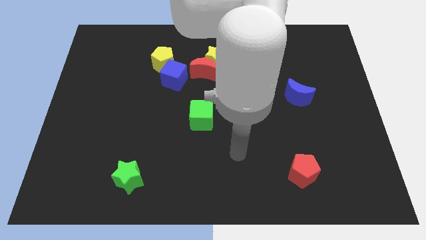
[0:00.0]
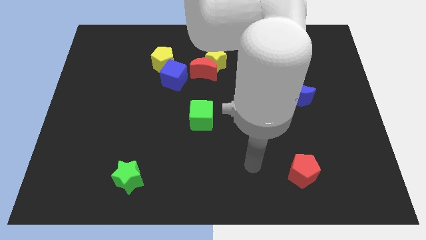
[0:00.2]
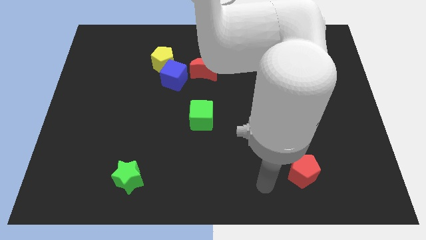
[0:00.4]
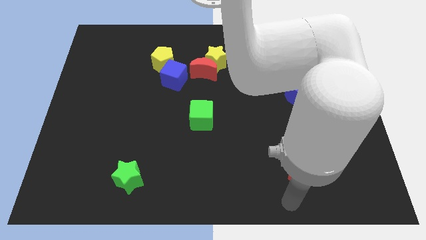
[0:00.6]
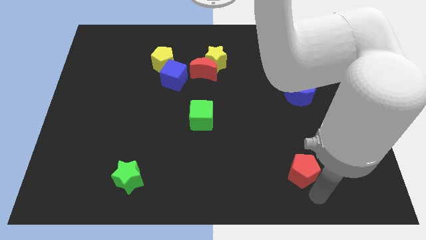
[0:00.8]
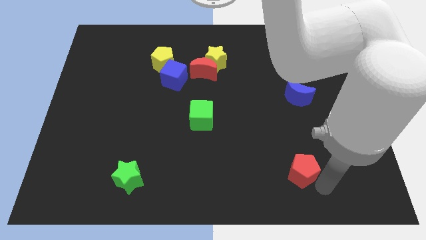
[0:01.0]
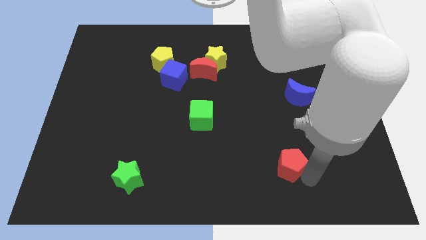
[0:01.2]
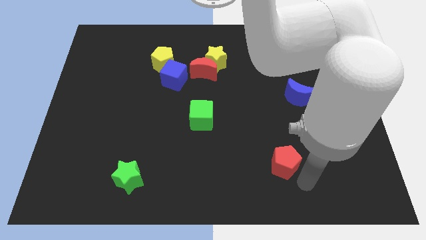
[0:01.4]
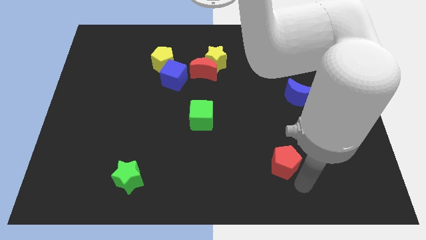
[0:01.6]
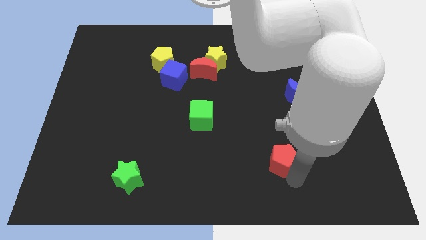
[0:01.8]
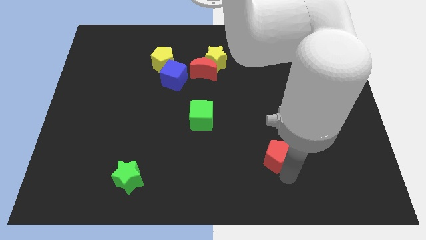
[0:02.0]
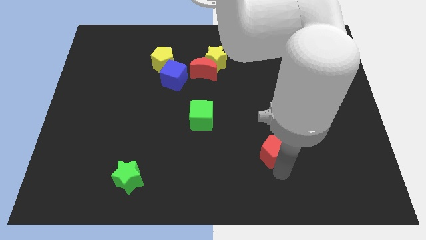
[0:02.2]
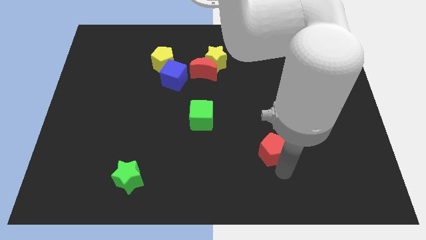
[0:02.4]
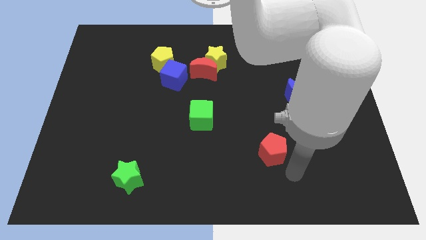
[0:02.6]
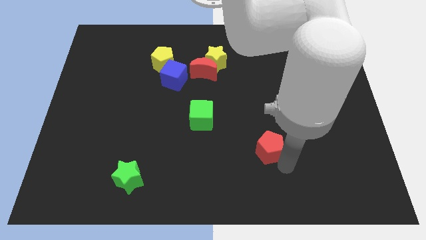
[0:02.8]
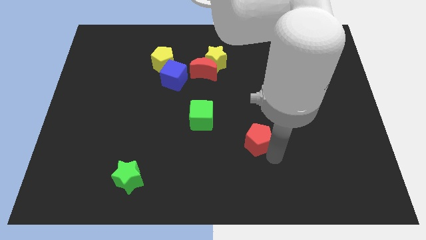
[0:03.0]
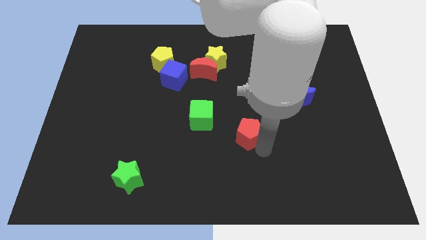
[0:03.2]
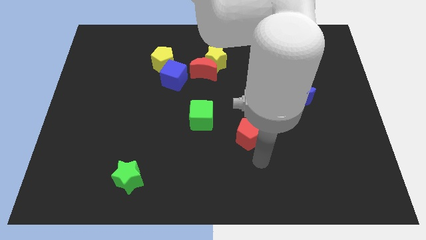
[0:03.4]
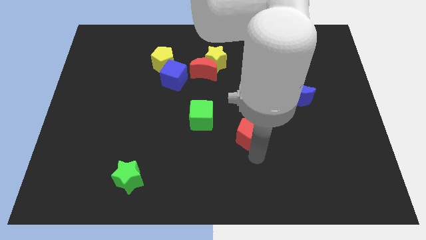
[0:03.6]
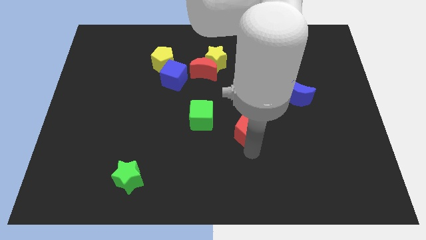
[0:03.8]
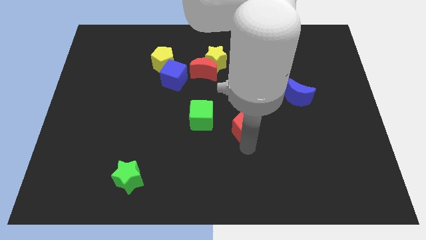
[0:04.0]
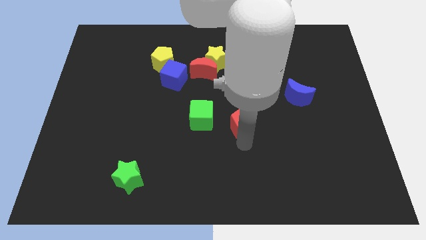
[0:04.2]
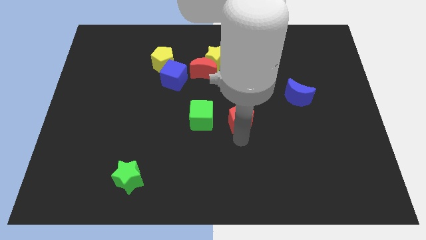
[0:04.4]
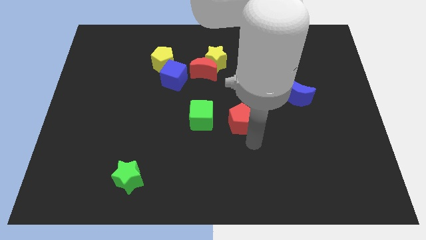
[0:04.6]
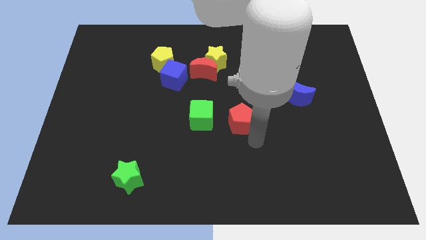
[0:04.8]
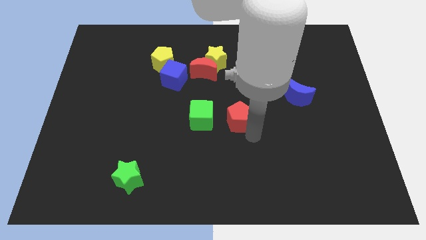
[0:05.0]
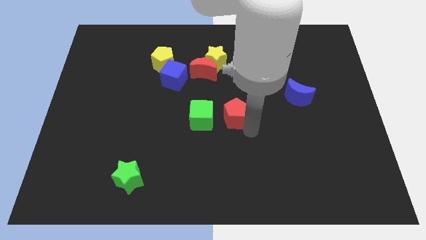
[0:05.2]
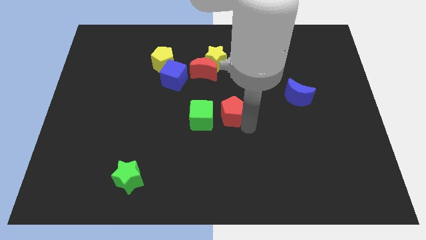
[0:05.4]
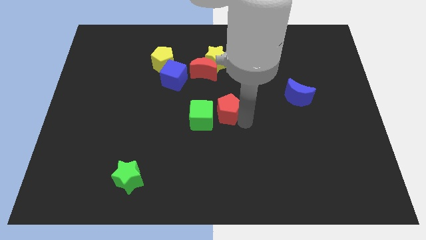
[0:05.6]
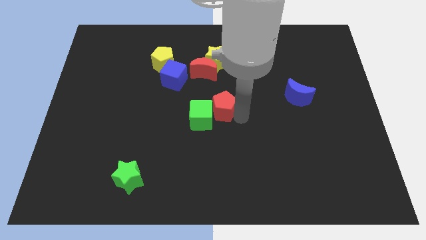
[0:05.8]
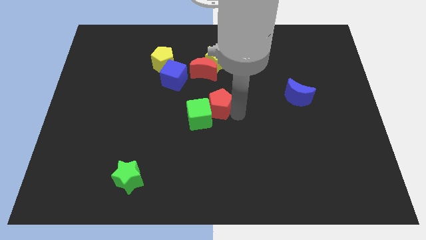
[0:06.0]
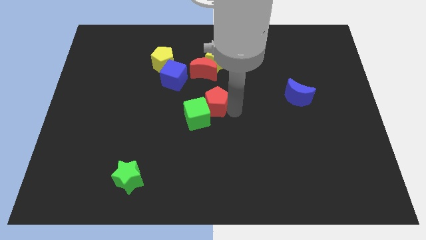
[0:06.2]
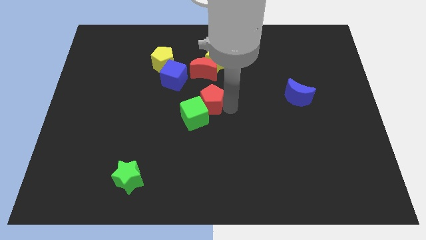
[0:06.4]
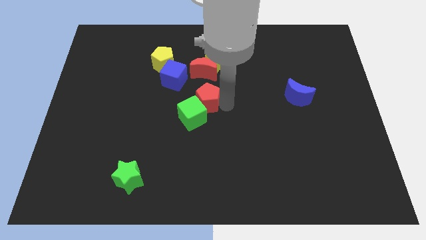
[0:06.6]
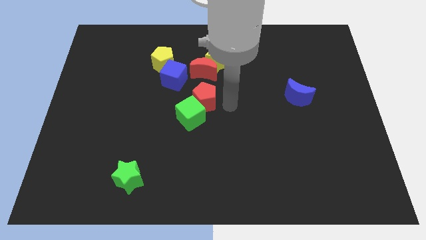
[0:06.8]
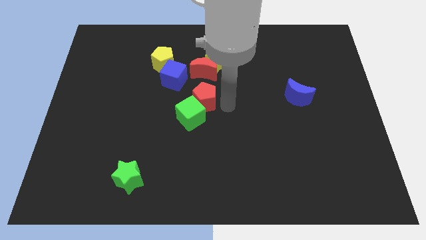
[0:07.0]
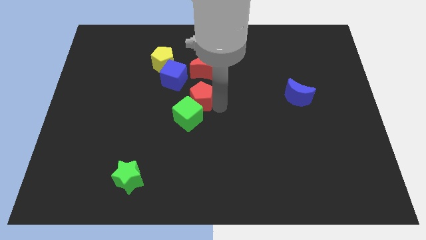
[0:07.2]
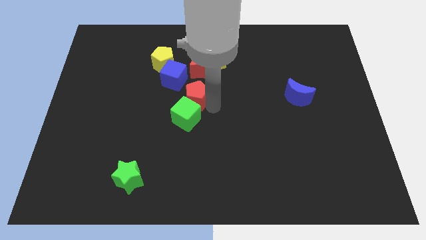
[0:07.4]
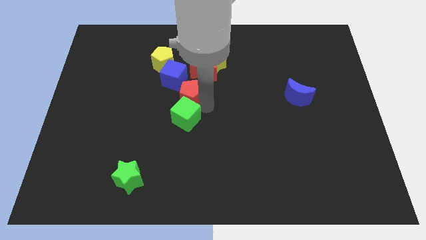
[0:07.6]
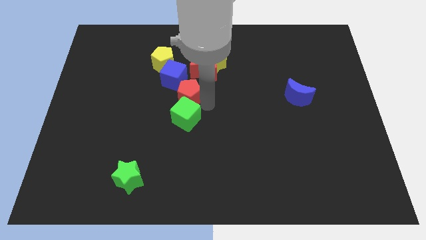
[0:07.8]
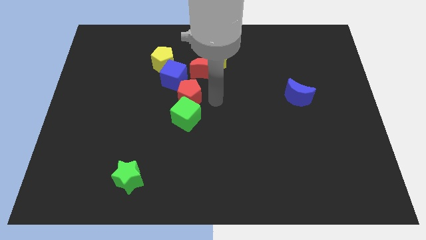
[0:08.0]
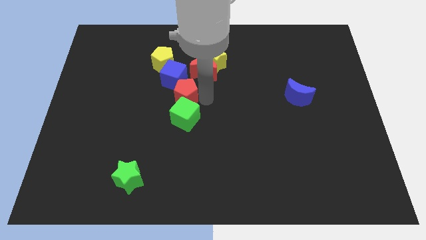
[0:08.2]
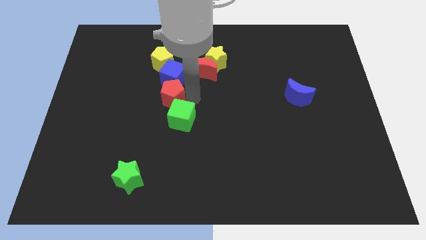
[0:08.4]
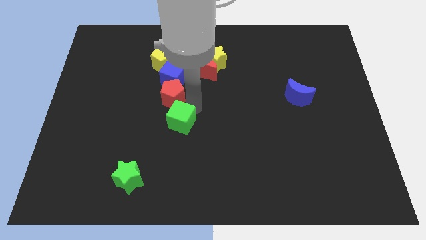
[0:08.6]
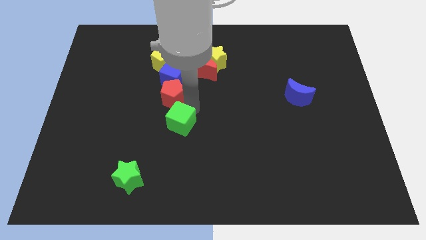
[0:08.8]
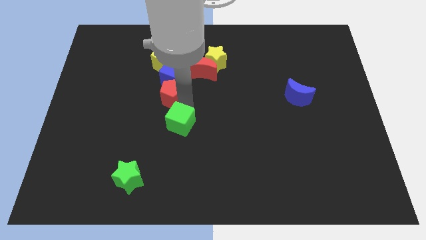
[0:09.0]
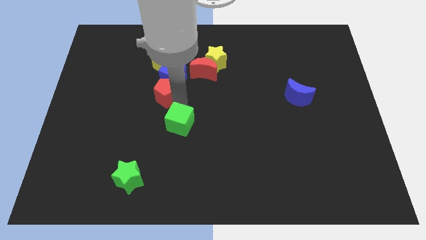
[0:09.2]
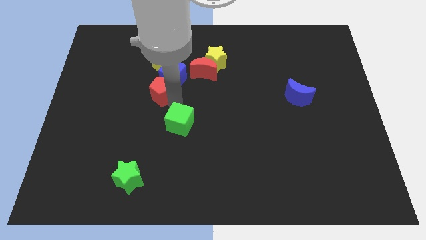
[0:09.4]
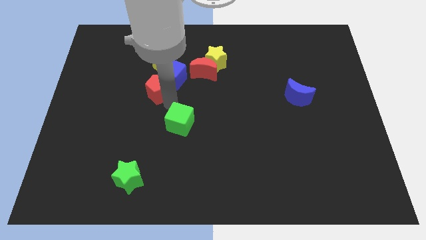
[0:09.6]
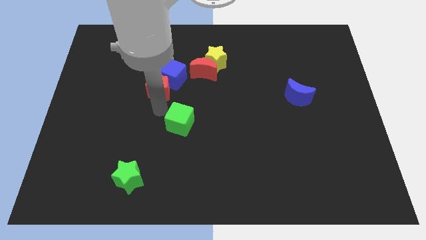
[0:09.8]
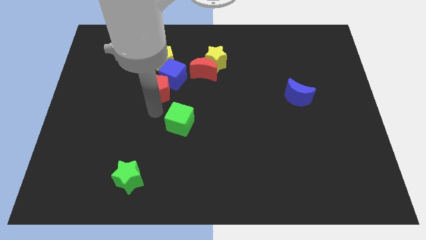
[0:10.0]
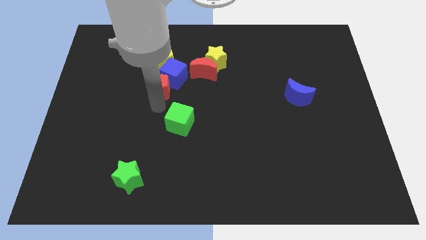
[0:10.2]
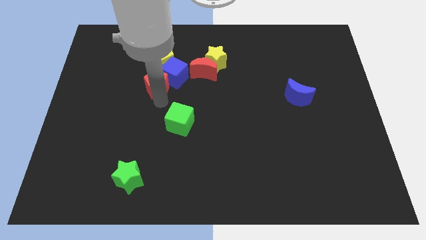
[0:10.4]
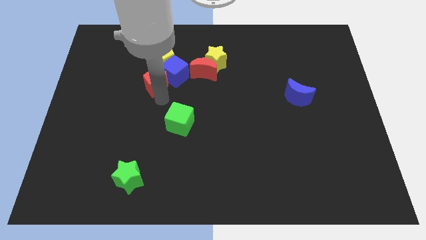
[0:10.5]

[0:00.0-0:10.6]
put the red pentagon to the left side of the red moon

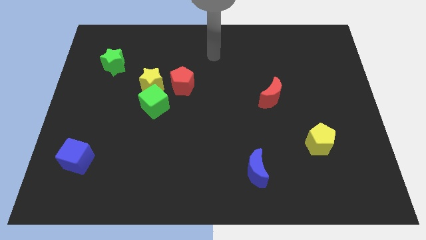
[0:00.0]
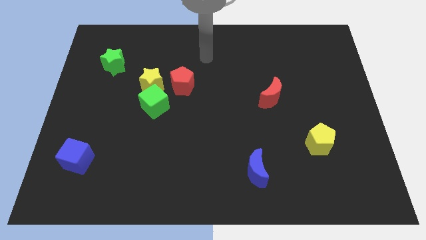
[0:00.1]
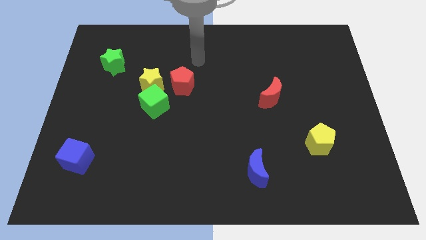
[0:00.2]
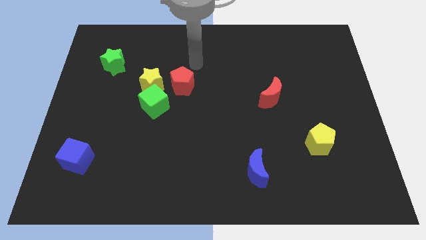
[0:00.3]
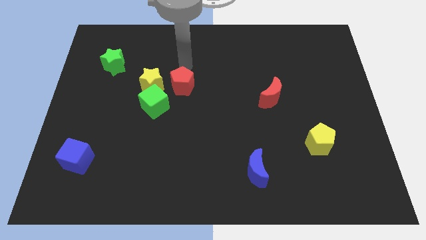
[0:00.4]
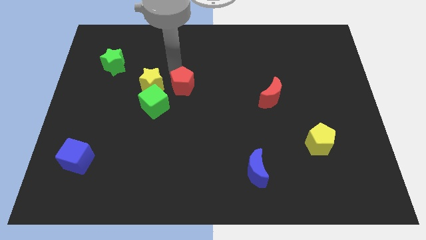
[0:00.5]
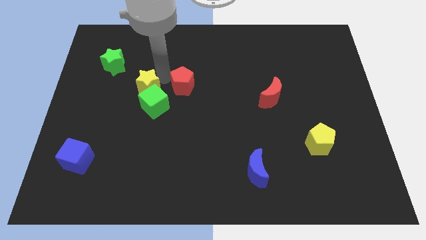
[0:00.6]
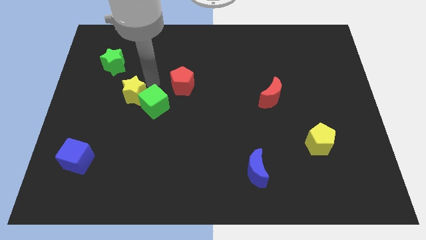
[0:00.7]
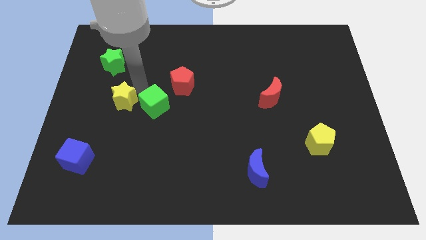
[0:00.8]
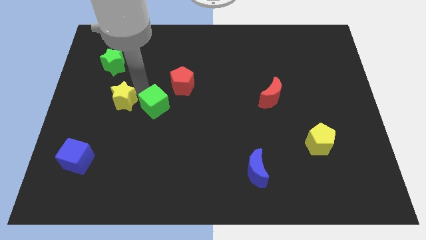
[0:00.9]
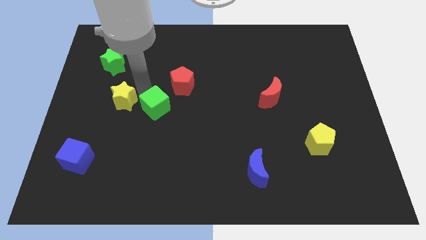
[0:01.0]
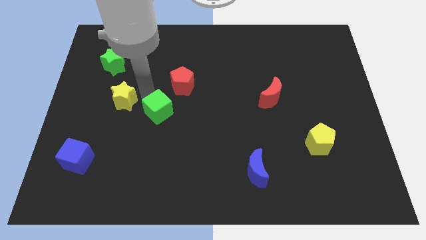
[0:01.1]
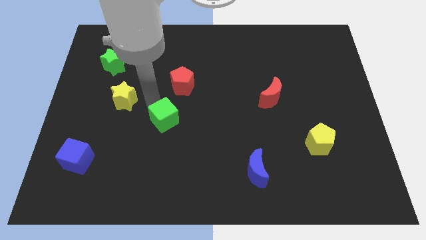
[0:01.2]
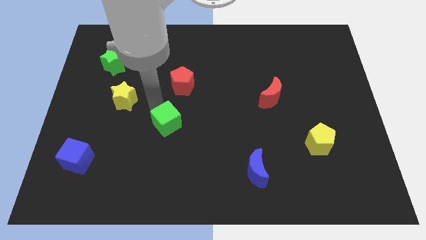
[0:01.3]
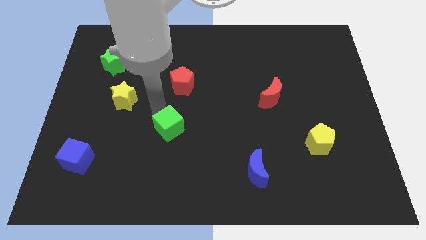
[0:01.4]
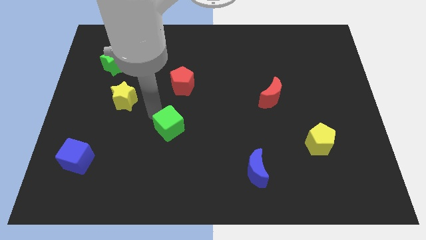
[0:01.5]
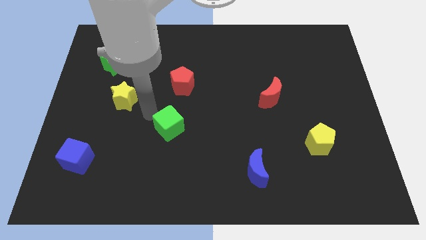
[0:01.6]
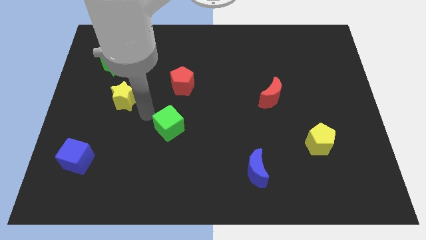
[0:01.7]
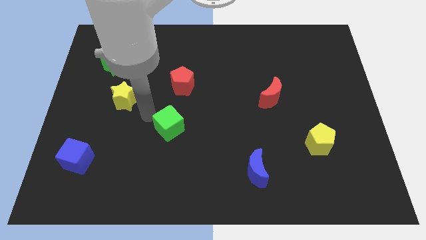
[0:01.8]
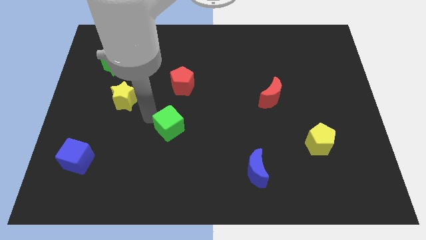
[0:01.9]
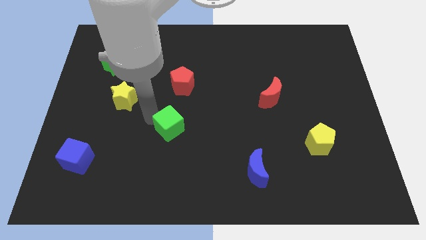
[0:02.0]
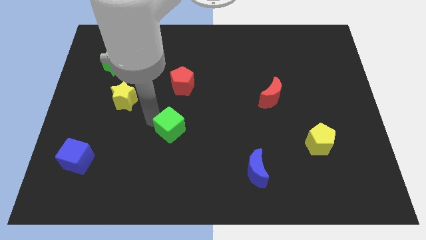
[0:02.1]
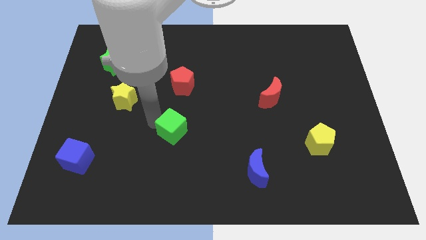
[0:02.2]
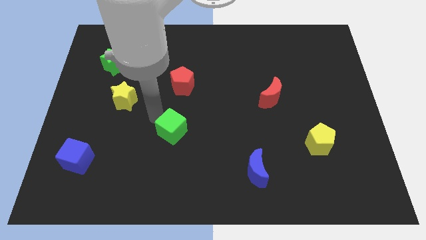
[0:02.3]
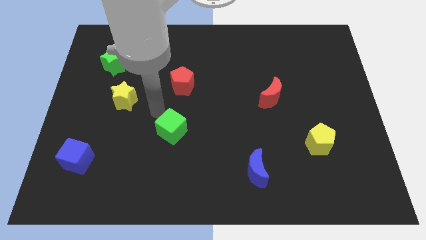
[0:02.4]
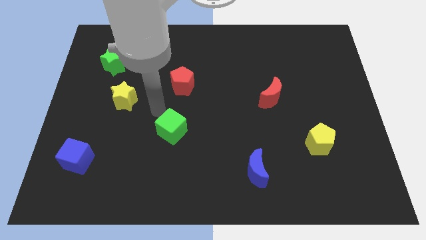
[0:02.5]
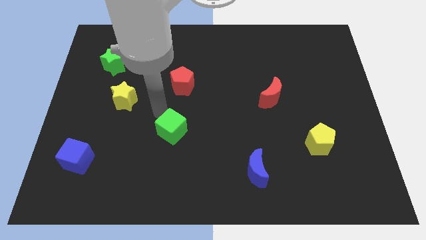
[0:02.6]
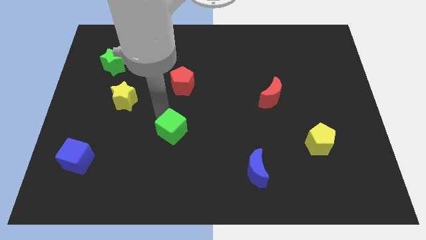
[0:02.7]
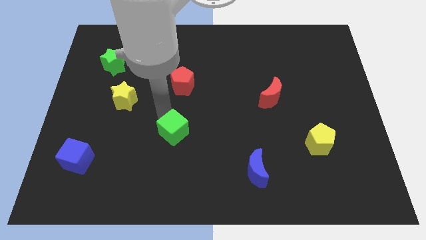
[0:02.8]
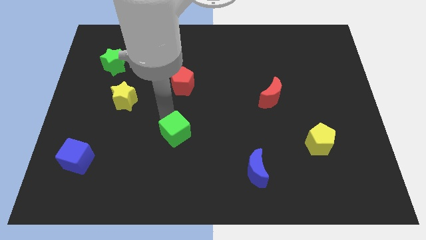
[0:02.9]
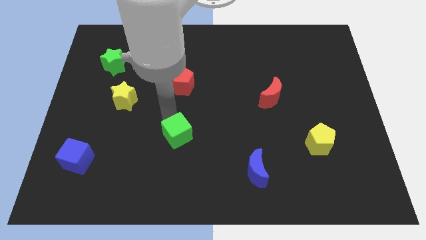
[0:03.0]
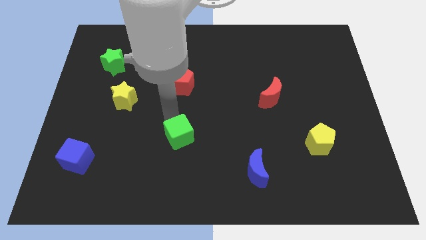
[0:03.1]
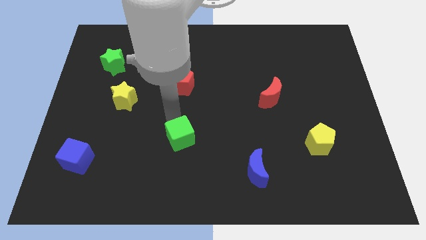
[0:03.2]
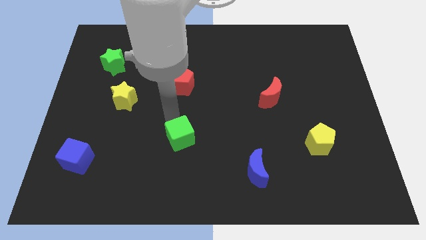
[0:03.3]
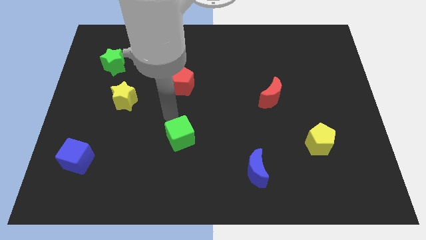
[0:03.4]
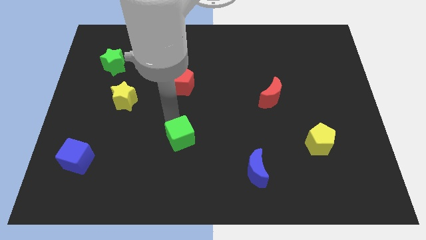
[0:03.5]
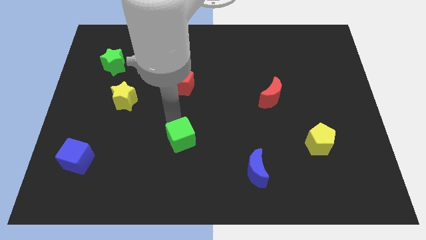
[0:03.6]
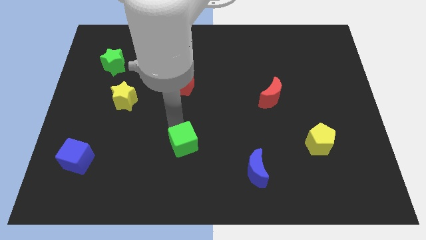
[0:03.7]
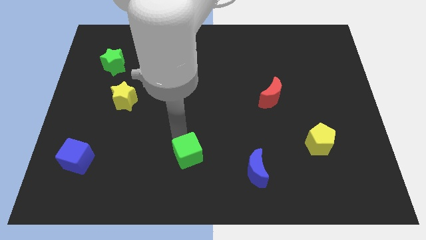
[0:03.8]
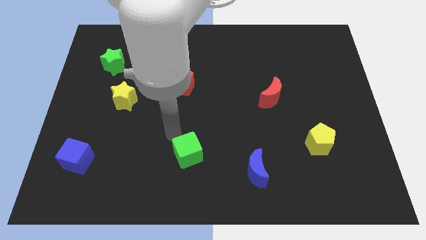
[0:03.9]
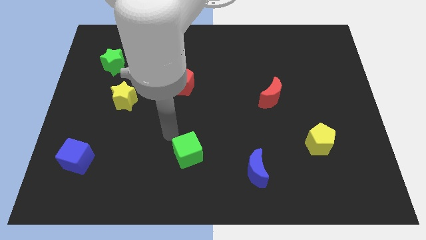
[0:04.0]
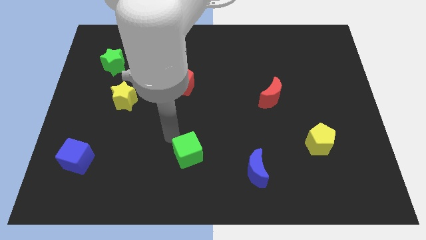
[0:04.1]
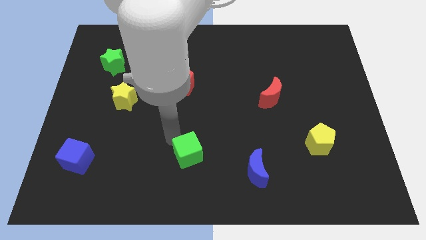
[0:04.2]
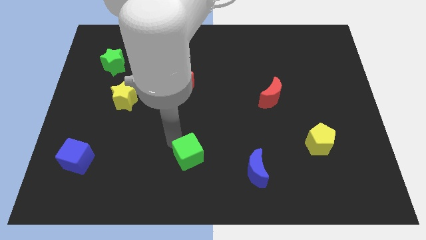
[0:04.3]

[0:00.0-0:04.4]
move the green cube to the left of the blue moon
